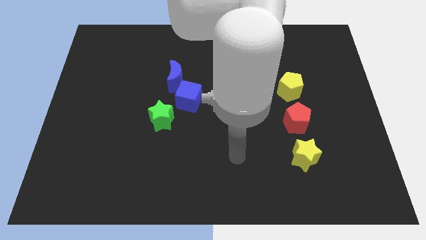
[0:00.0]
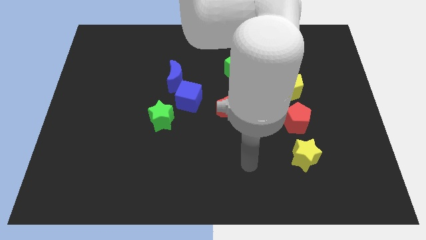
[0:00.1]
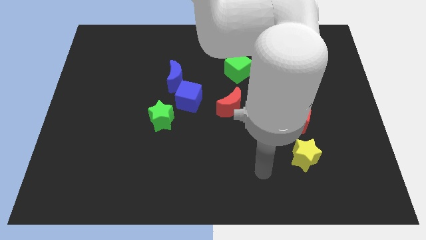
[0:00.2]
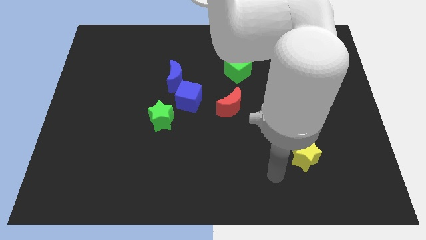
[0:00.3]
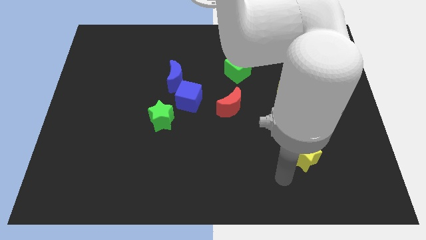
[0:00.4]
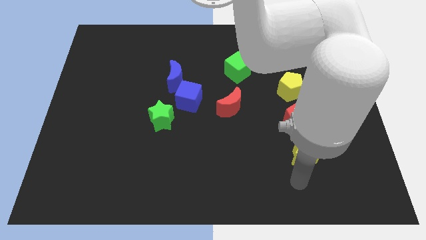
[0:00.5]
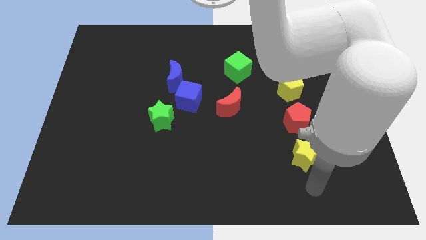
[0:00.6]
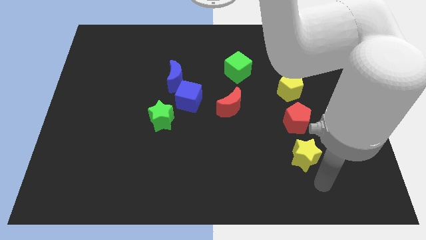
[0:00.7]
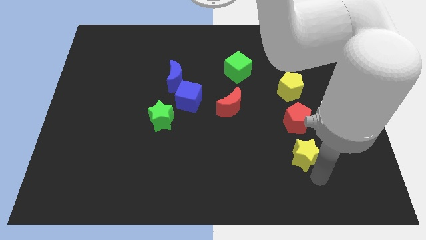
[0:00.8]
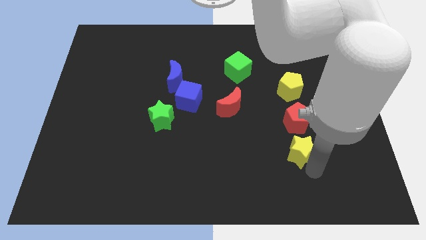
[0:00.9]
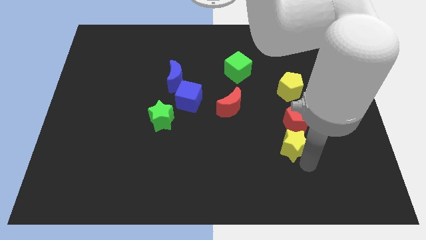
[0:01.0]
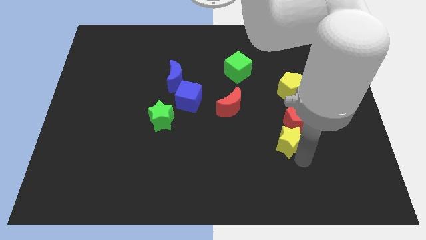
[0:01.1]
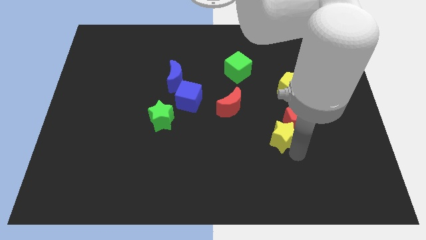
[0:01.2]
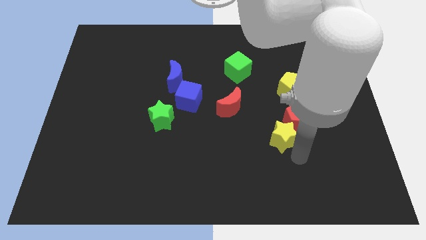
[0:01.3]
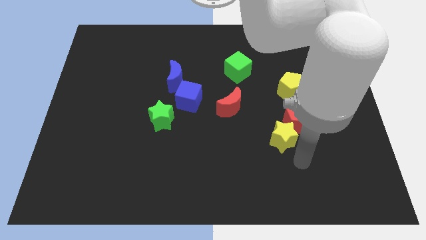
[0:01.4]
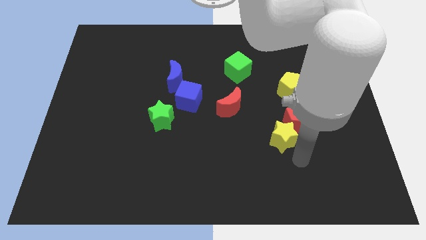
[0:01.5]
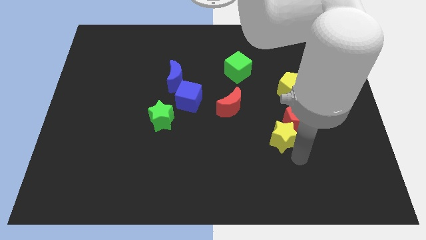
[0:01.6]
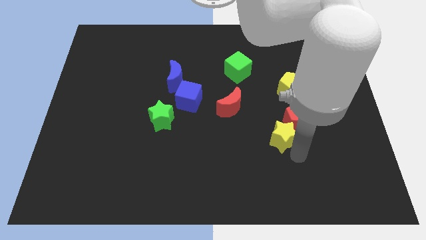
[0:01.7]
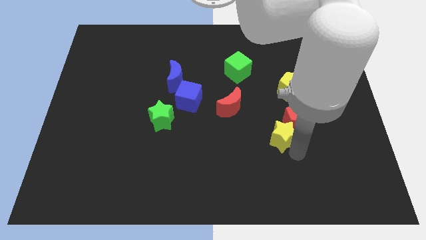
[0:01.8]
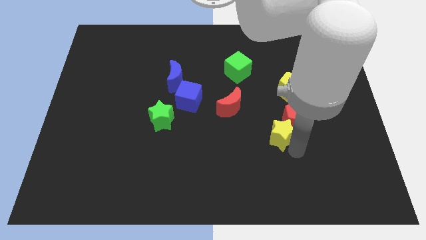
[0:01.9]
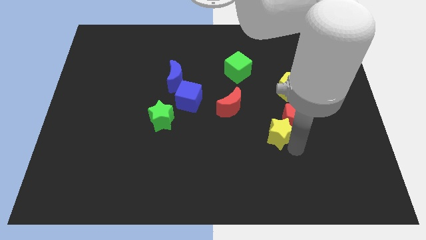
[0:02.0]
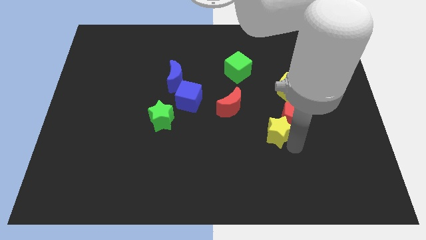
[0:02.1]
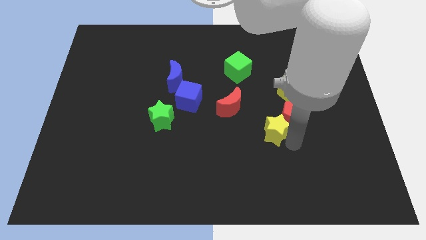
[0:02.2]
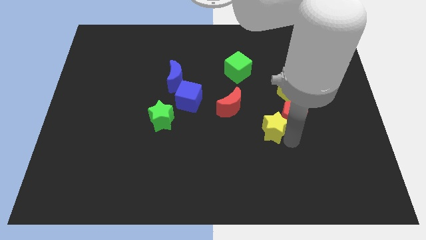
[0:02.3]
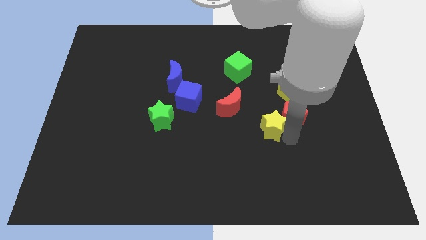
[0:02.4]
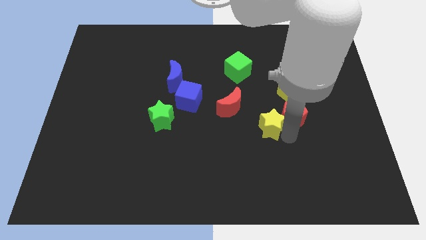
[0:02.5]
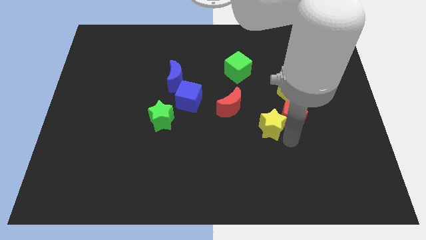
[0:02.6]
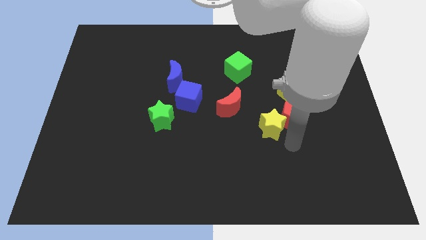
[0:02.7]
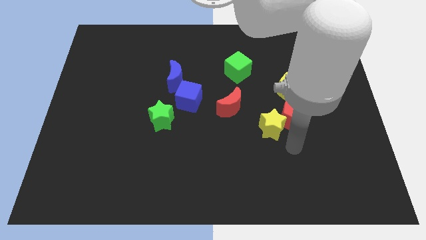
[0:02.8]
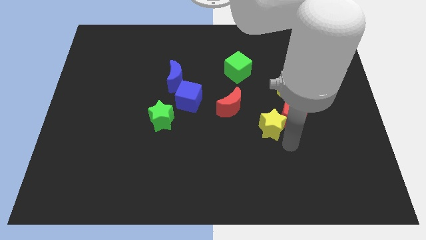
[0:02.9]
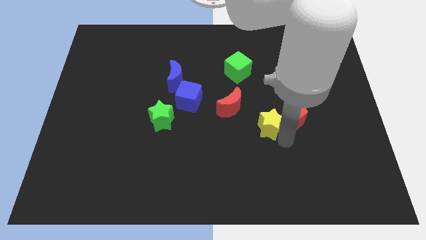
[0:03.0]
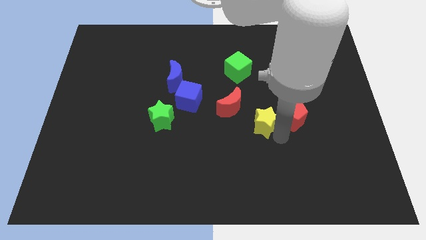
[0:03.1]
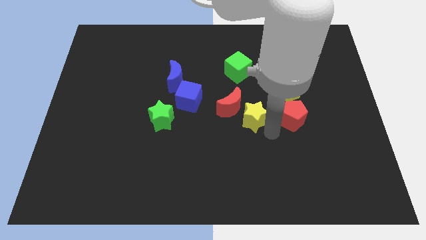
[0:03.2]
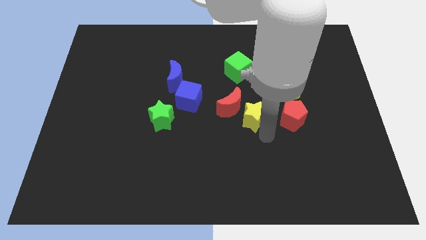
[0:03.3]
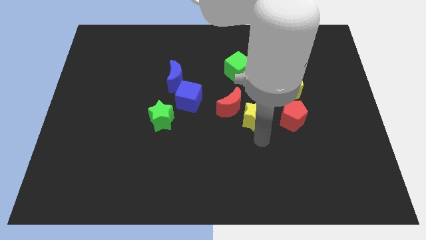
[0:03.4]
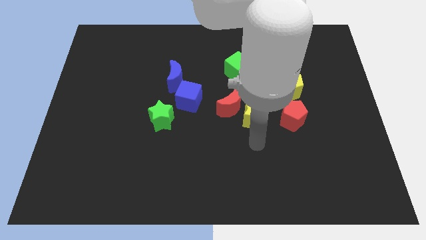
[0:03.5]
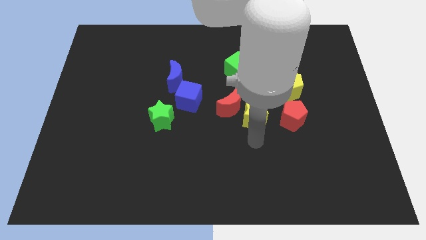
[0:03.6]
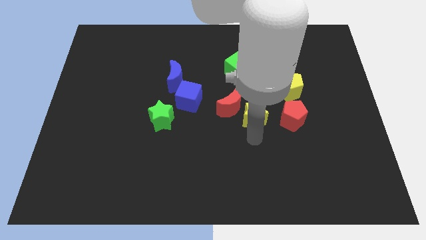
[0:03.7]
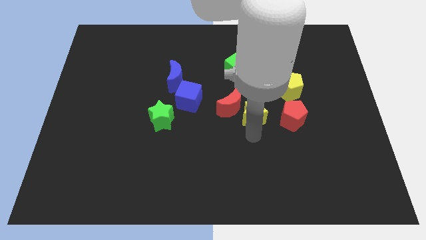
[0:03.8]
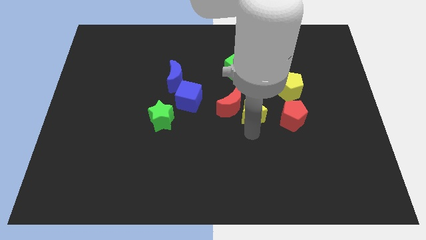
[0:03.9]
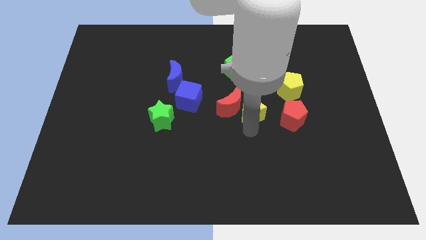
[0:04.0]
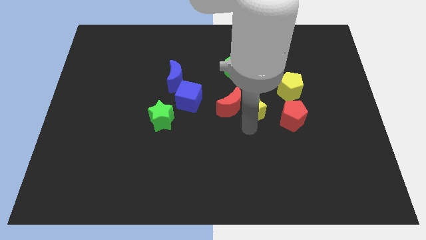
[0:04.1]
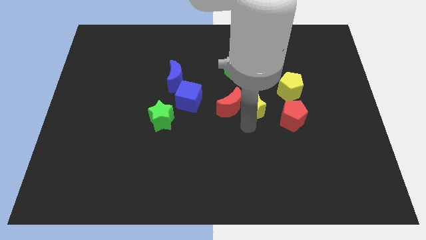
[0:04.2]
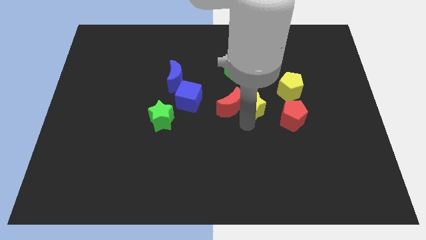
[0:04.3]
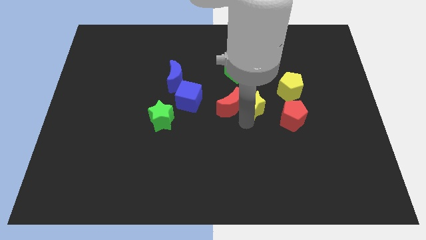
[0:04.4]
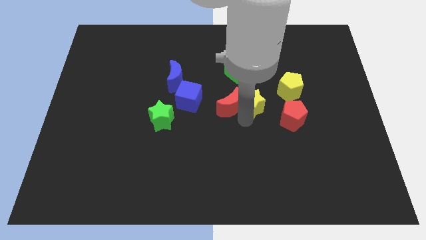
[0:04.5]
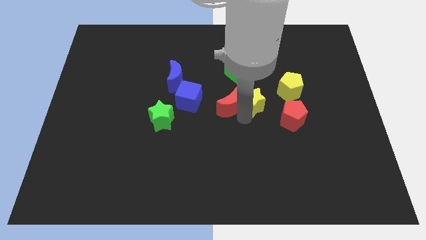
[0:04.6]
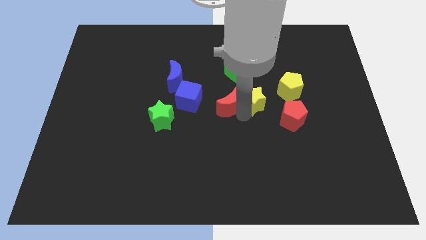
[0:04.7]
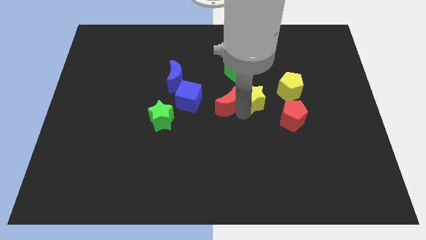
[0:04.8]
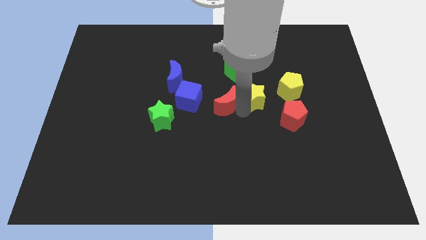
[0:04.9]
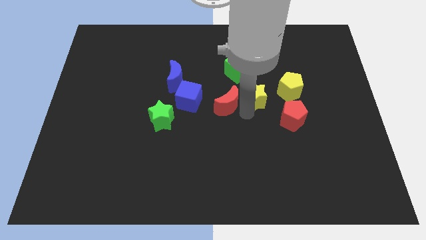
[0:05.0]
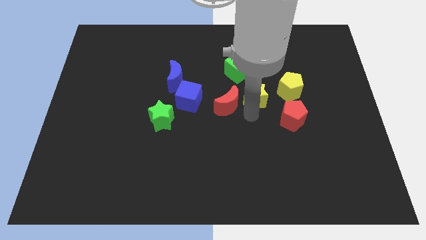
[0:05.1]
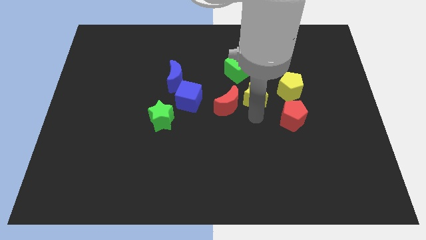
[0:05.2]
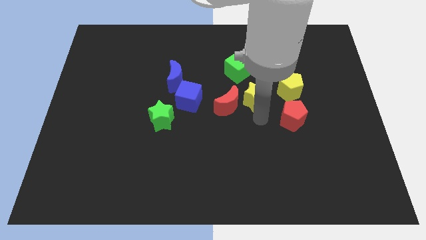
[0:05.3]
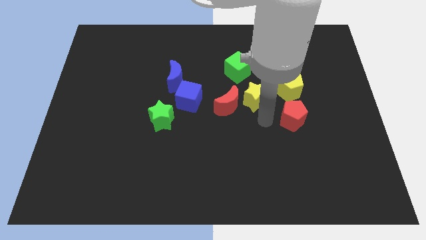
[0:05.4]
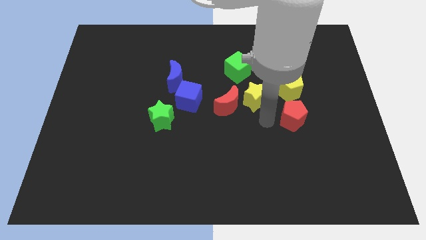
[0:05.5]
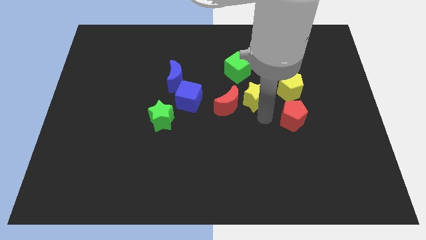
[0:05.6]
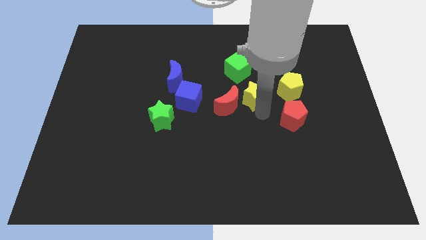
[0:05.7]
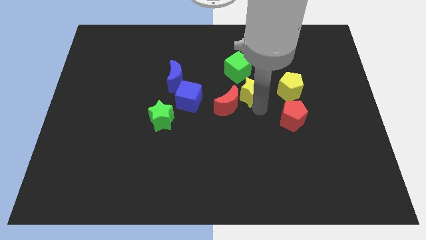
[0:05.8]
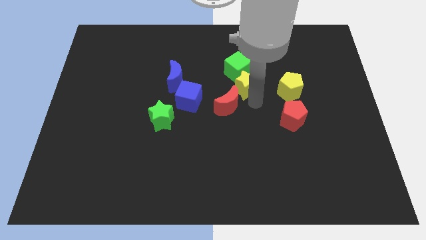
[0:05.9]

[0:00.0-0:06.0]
push the yellow star close to the green cube
